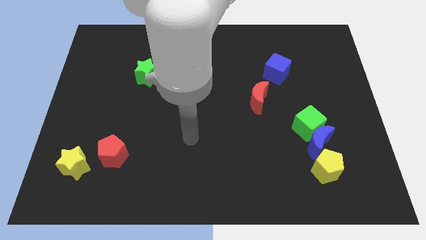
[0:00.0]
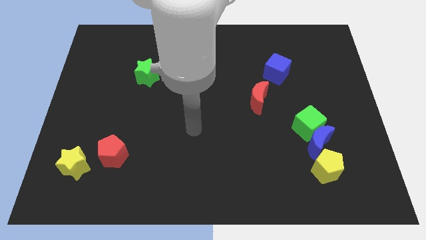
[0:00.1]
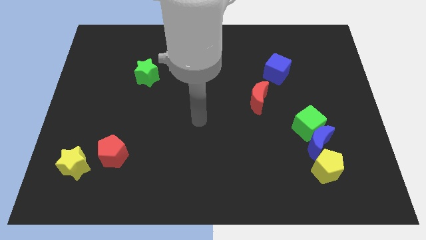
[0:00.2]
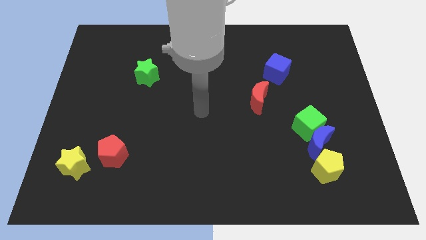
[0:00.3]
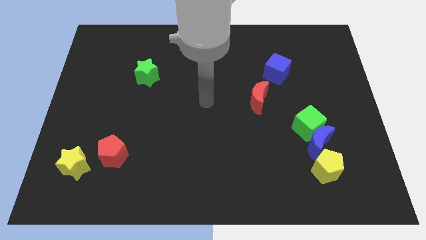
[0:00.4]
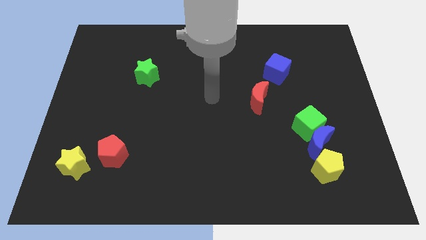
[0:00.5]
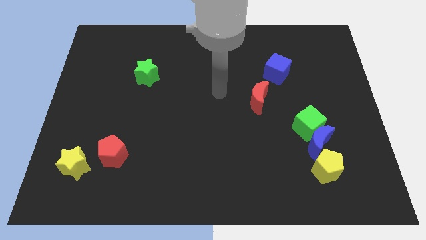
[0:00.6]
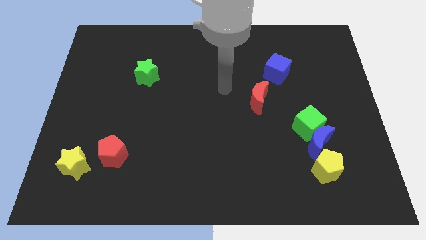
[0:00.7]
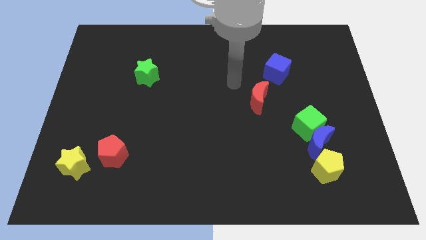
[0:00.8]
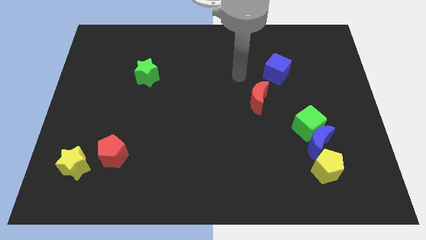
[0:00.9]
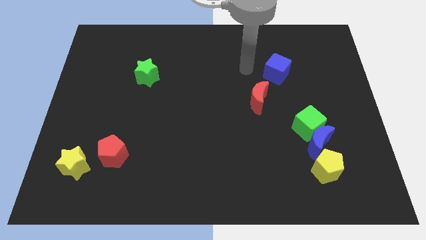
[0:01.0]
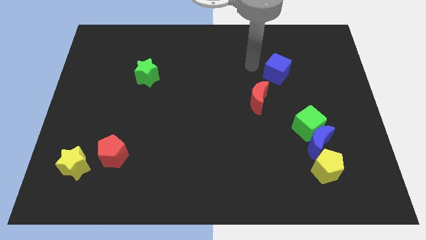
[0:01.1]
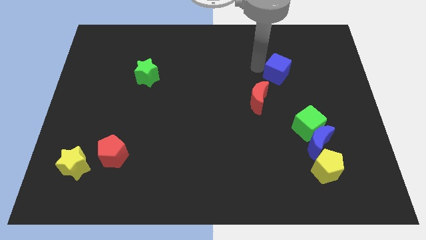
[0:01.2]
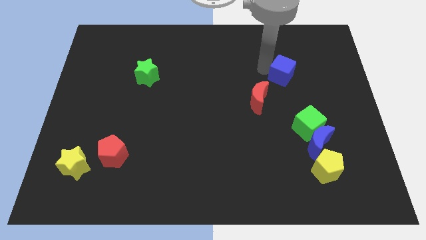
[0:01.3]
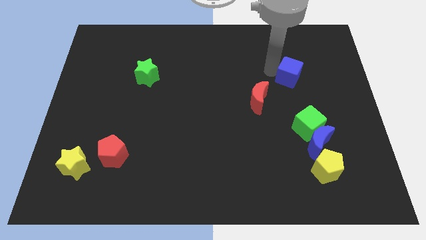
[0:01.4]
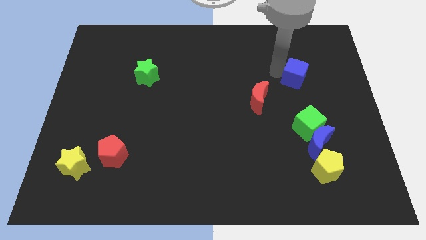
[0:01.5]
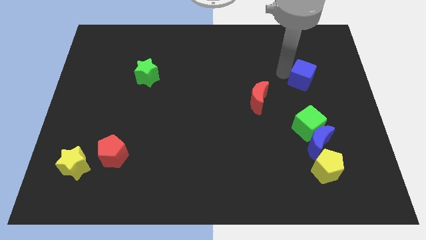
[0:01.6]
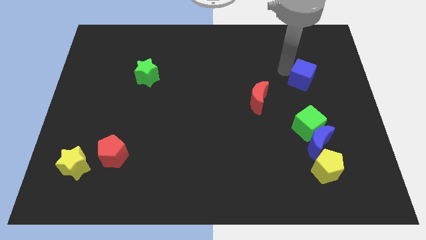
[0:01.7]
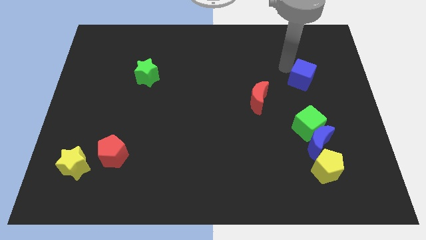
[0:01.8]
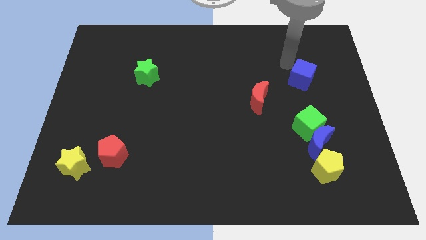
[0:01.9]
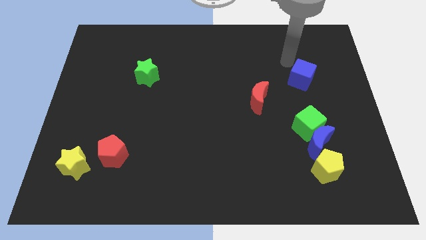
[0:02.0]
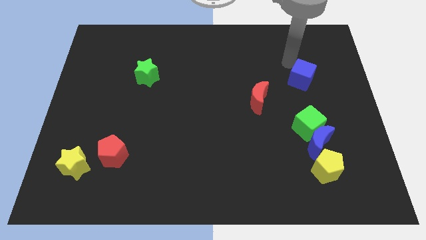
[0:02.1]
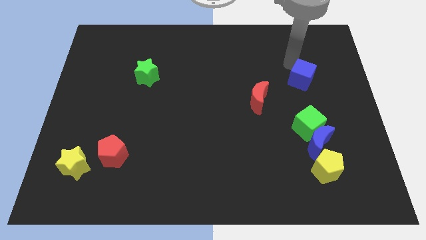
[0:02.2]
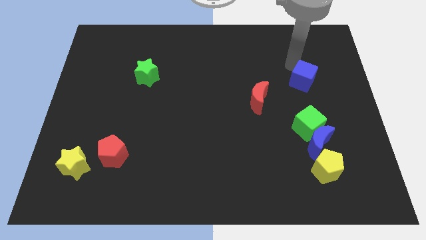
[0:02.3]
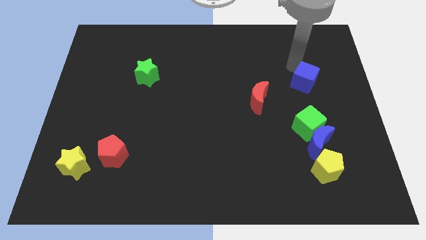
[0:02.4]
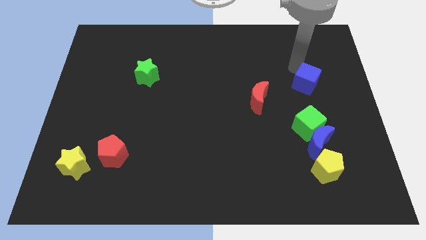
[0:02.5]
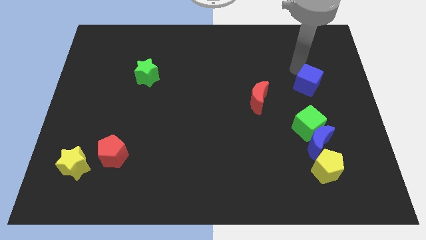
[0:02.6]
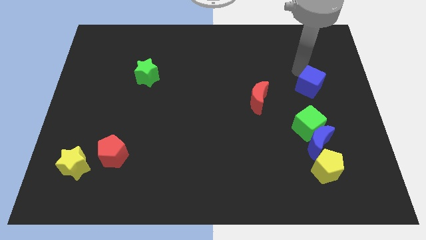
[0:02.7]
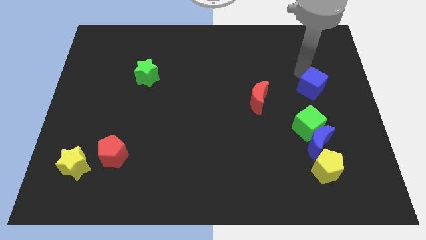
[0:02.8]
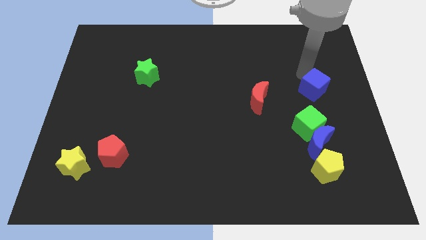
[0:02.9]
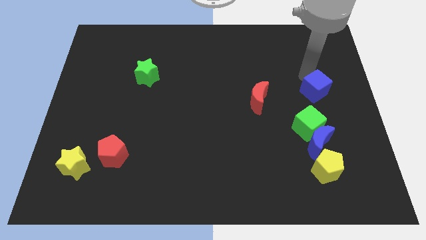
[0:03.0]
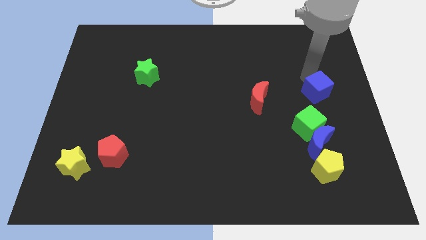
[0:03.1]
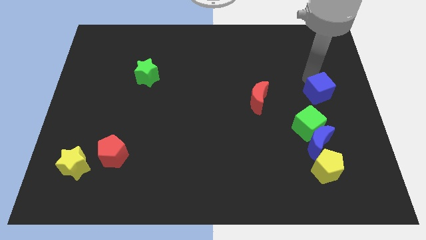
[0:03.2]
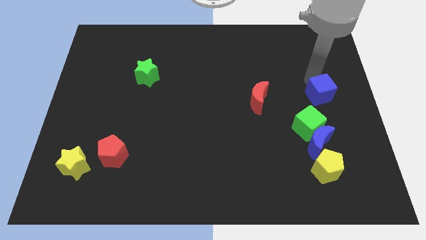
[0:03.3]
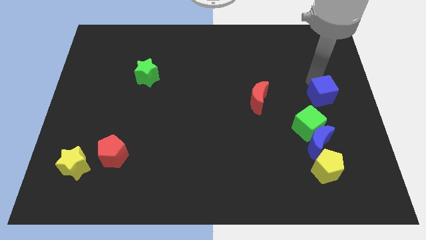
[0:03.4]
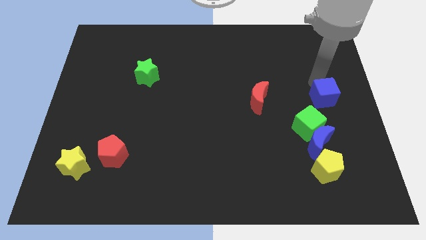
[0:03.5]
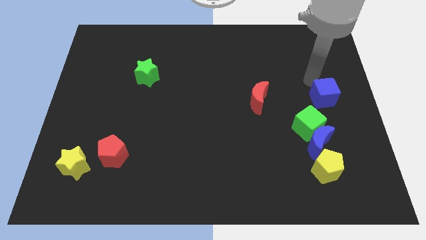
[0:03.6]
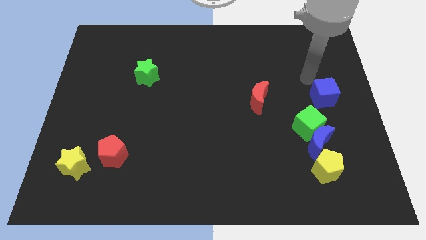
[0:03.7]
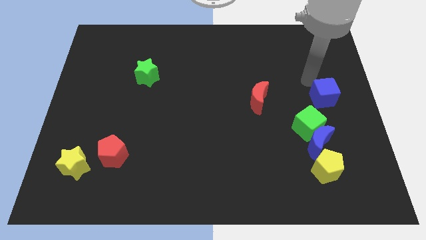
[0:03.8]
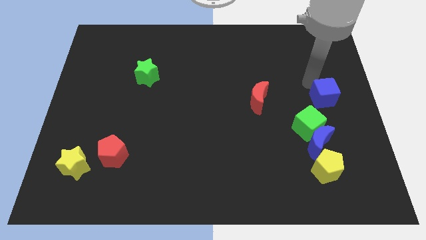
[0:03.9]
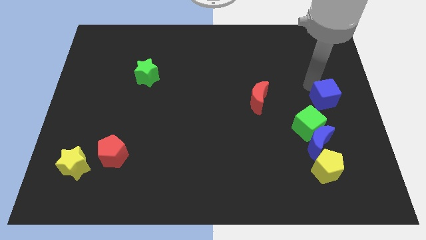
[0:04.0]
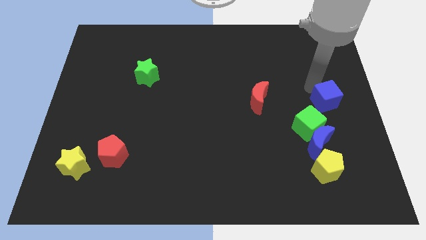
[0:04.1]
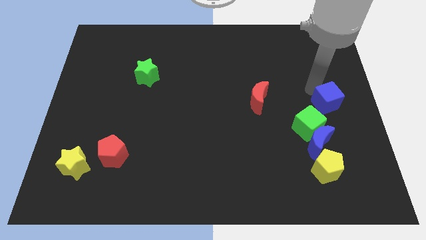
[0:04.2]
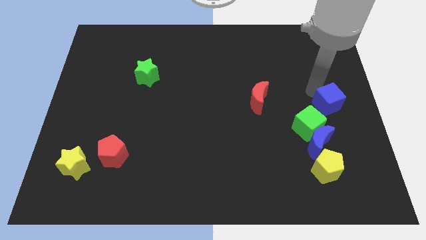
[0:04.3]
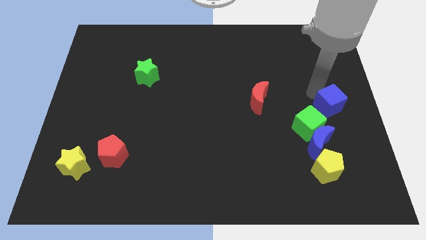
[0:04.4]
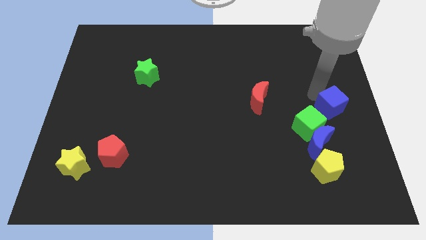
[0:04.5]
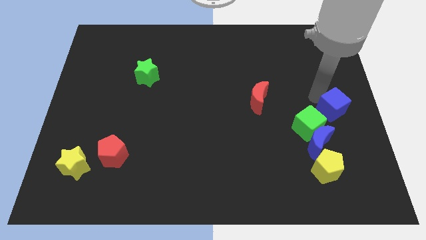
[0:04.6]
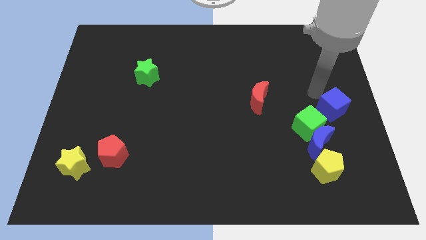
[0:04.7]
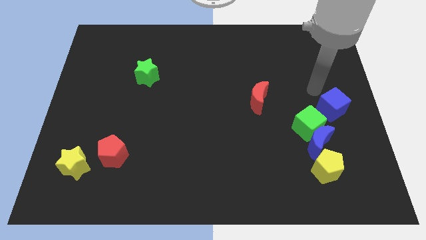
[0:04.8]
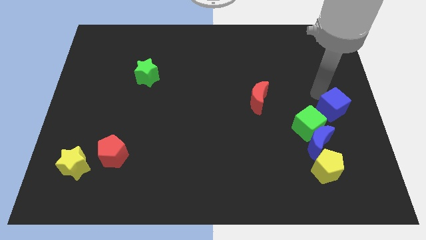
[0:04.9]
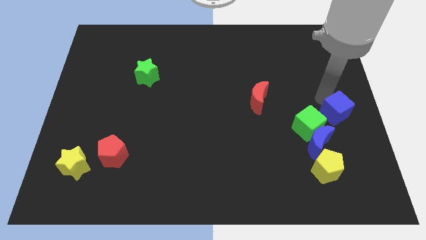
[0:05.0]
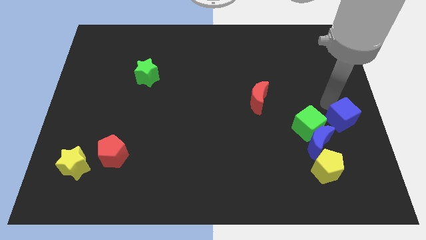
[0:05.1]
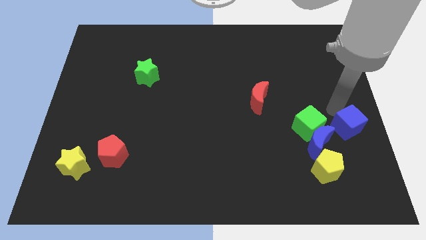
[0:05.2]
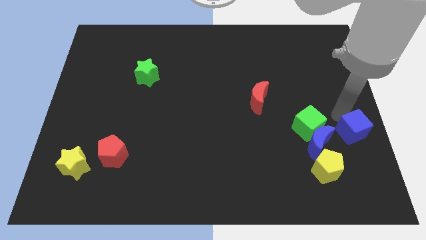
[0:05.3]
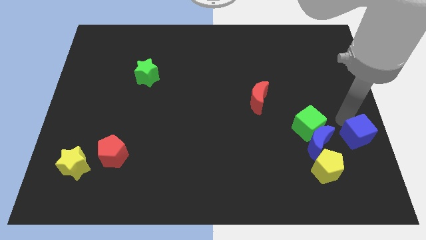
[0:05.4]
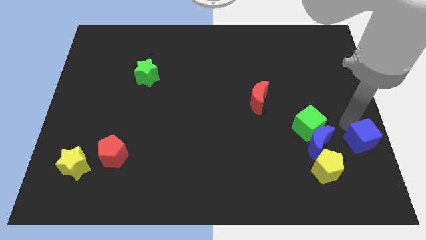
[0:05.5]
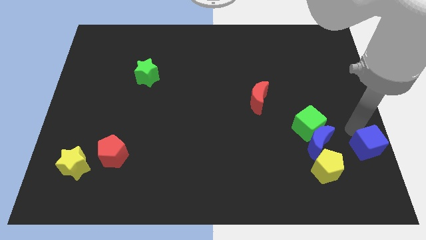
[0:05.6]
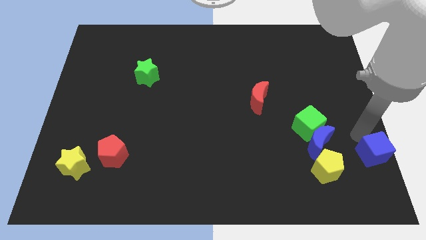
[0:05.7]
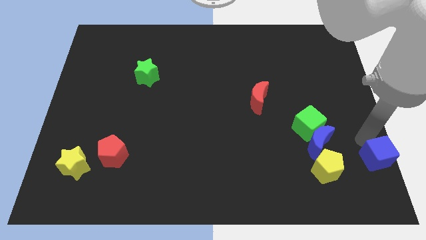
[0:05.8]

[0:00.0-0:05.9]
put the blue cube to the bottom right of the board

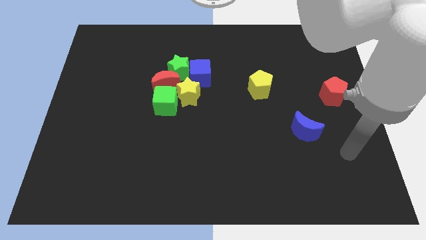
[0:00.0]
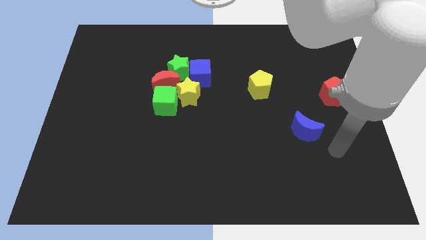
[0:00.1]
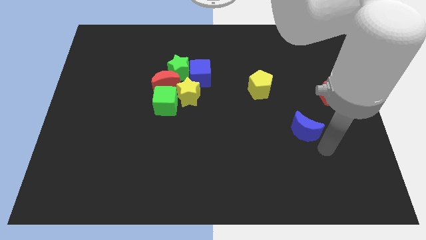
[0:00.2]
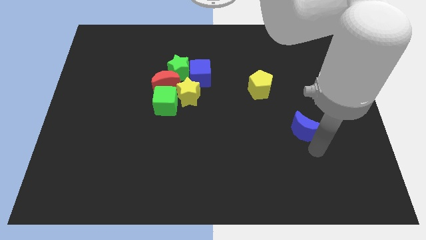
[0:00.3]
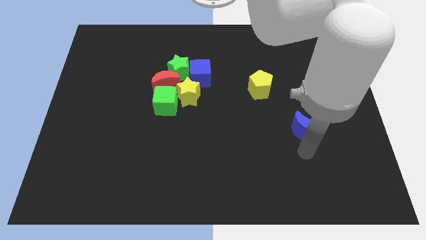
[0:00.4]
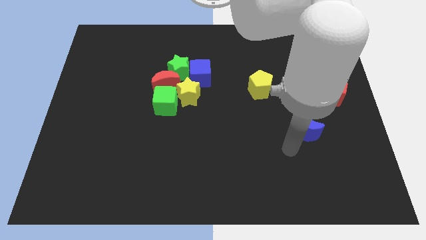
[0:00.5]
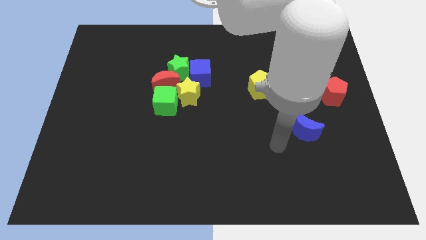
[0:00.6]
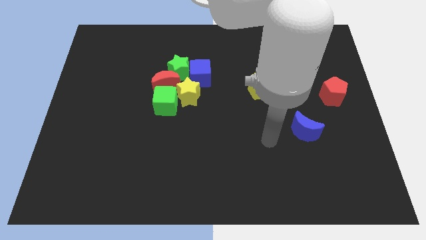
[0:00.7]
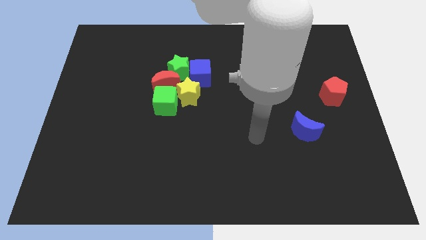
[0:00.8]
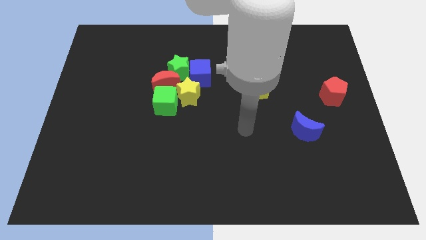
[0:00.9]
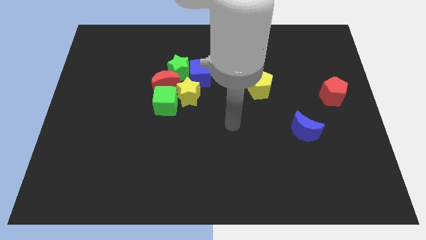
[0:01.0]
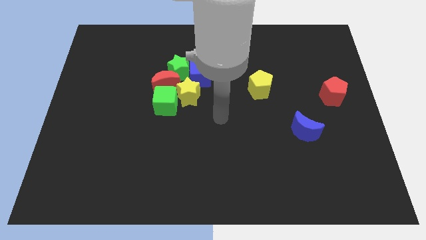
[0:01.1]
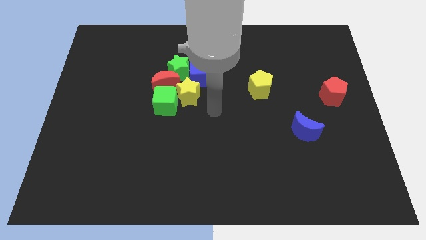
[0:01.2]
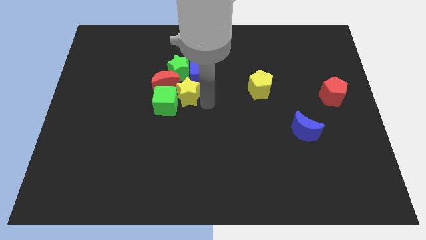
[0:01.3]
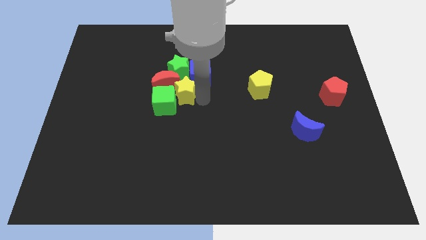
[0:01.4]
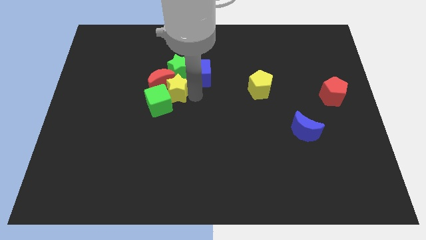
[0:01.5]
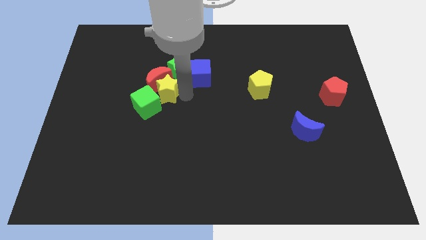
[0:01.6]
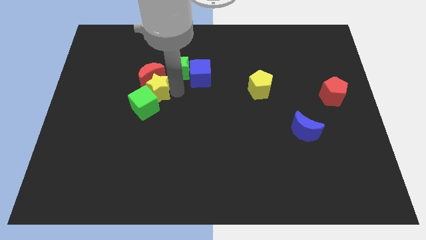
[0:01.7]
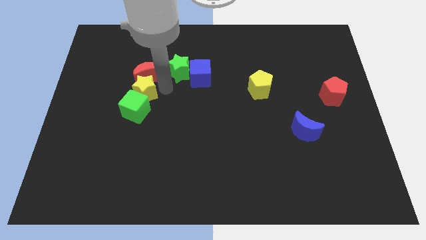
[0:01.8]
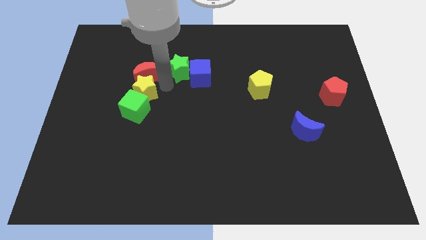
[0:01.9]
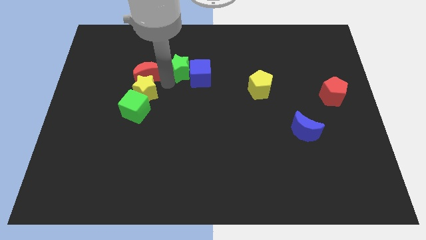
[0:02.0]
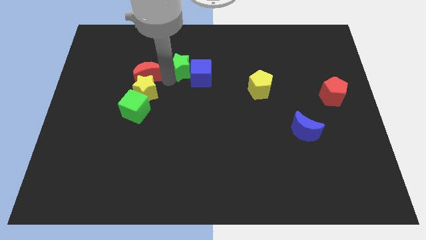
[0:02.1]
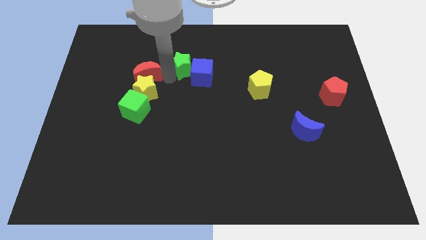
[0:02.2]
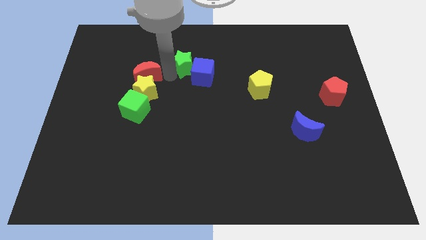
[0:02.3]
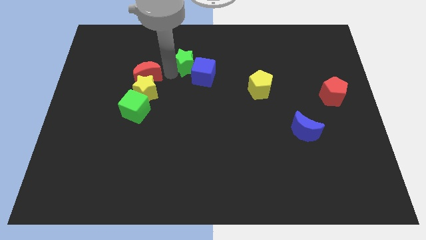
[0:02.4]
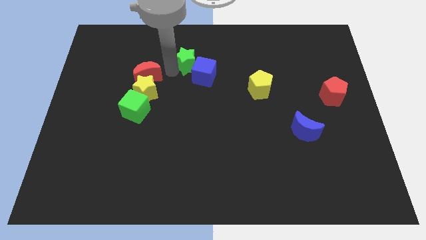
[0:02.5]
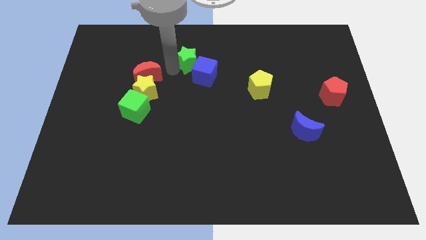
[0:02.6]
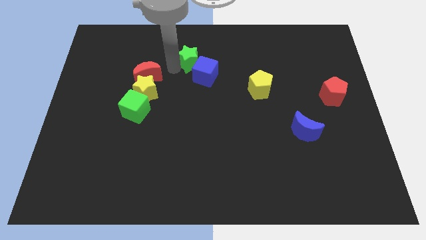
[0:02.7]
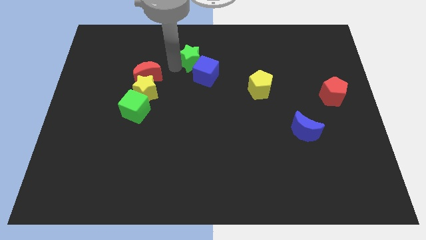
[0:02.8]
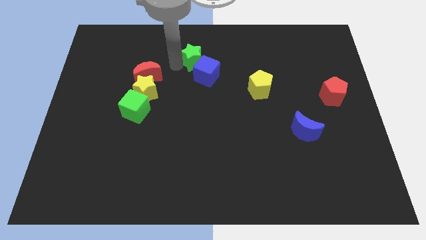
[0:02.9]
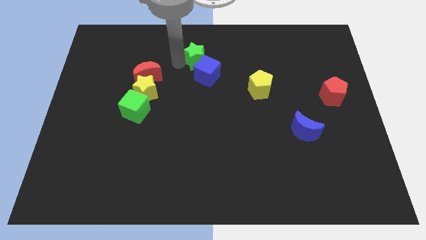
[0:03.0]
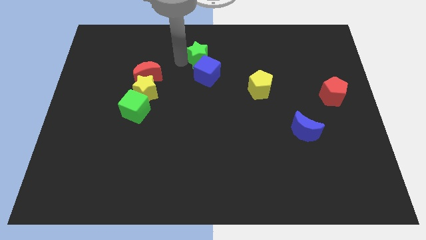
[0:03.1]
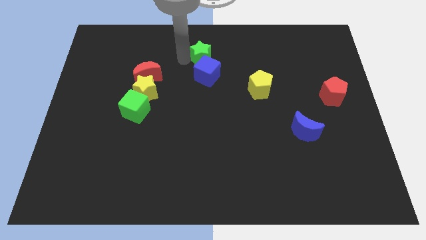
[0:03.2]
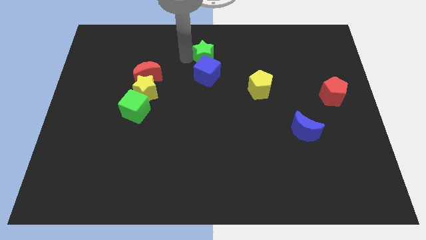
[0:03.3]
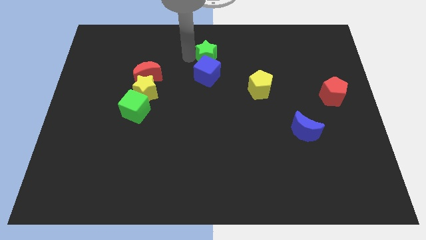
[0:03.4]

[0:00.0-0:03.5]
push the green star to the top side
